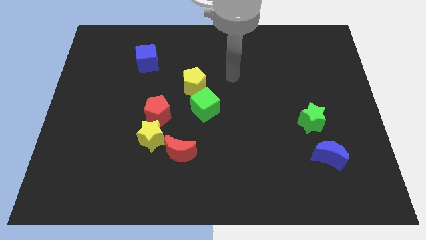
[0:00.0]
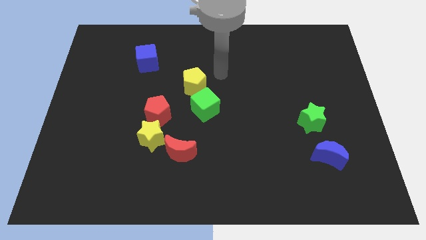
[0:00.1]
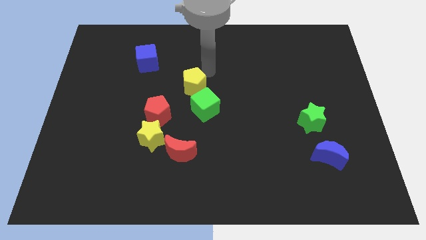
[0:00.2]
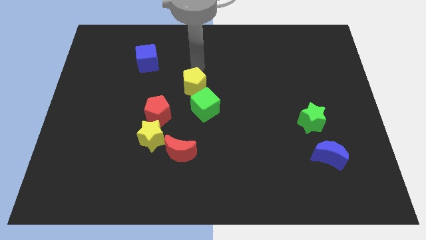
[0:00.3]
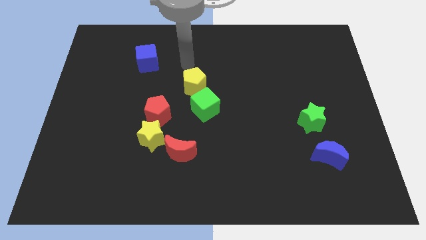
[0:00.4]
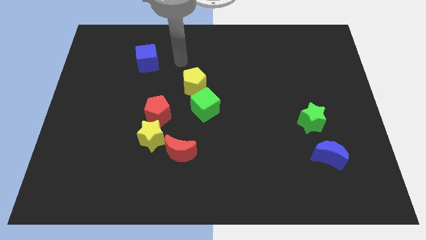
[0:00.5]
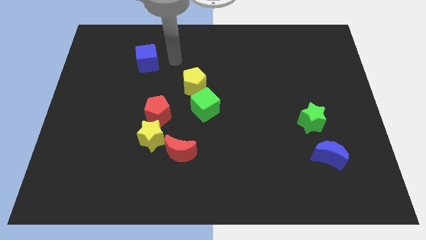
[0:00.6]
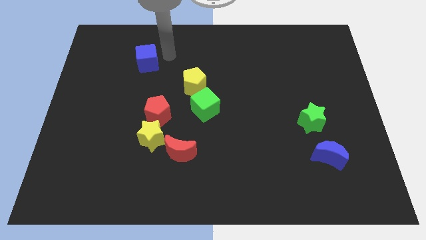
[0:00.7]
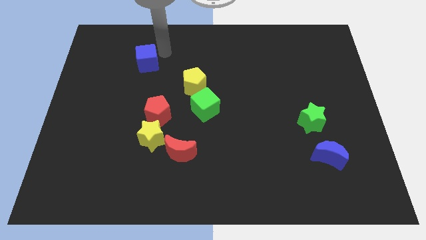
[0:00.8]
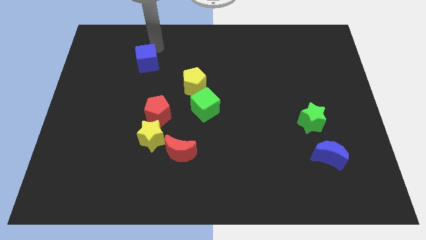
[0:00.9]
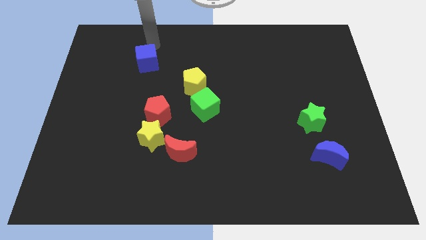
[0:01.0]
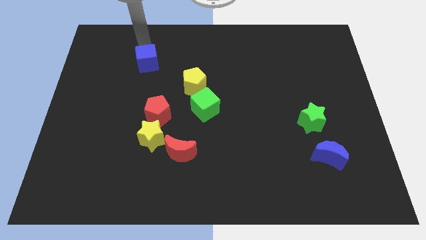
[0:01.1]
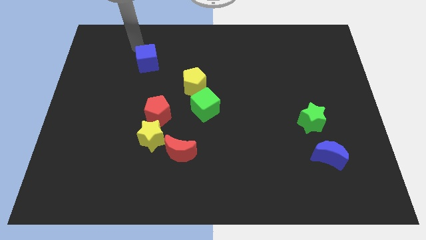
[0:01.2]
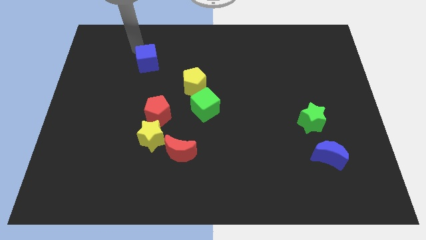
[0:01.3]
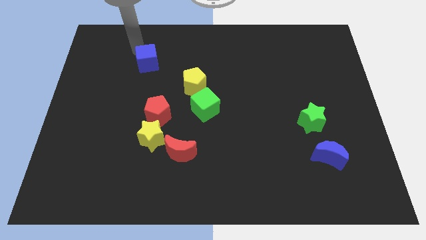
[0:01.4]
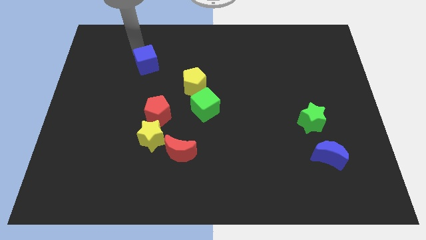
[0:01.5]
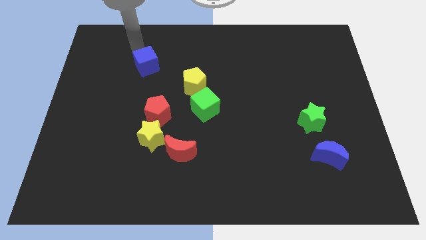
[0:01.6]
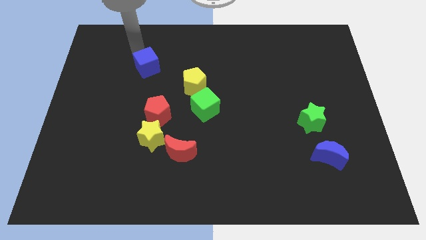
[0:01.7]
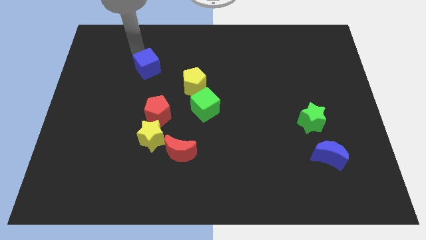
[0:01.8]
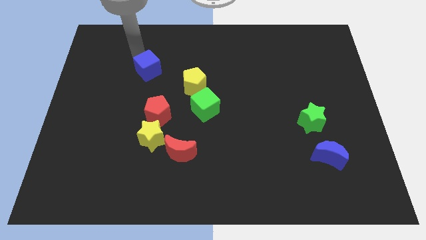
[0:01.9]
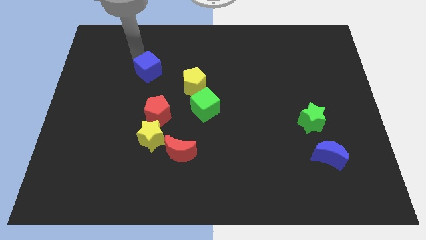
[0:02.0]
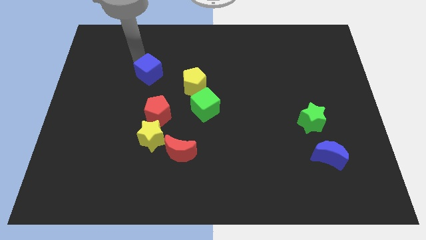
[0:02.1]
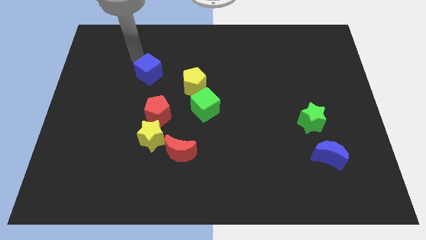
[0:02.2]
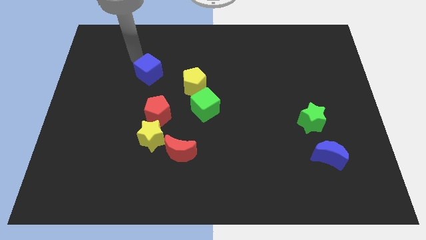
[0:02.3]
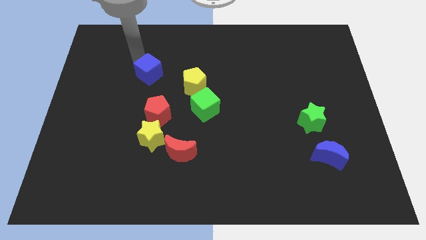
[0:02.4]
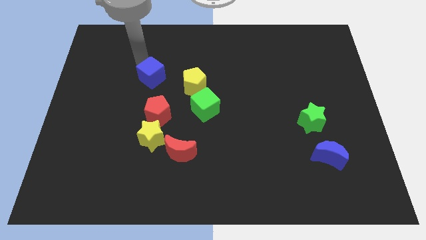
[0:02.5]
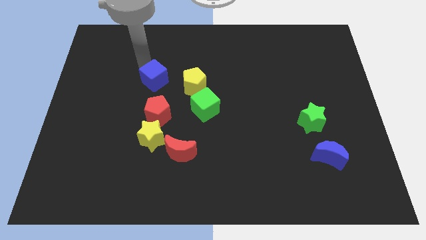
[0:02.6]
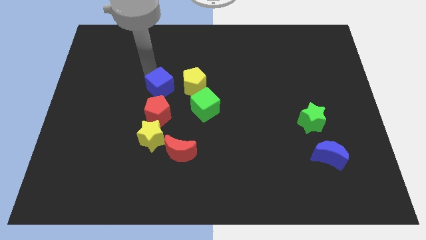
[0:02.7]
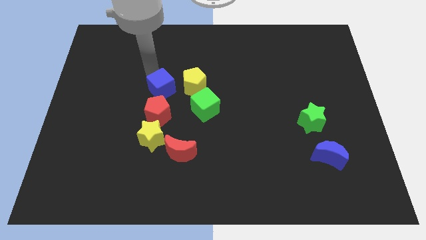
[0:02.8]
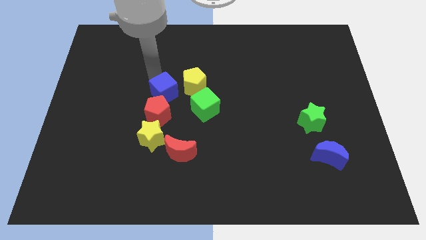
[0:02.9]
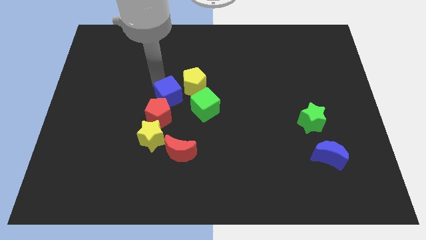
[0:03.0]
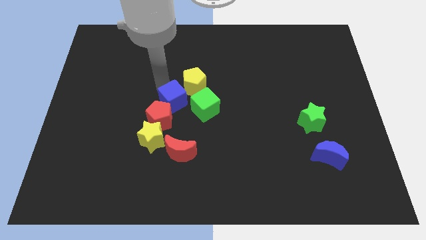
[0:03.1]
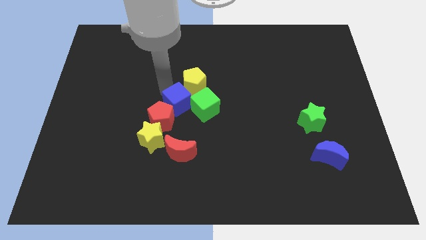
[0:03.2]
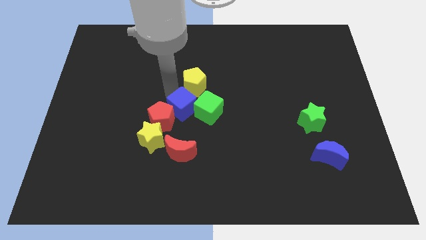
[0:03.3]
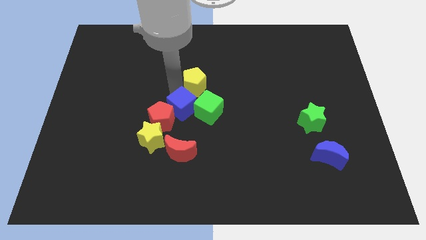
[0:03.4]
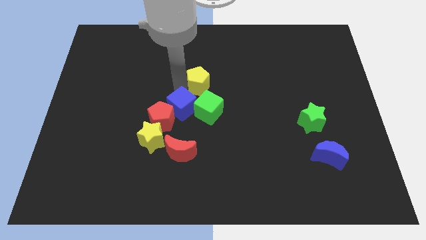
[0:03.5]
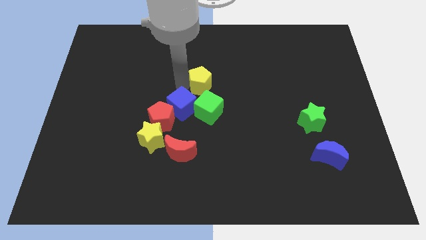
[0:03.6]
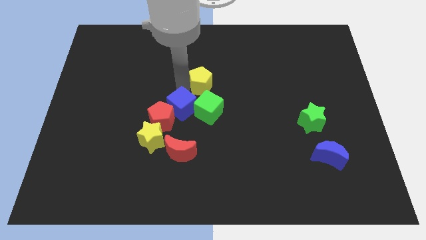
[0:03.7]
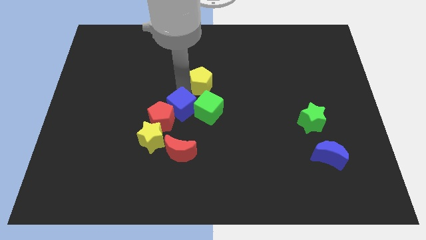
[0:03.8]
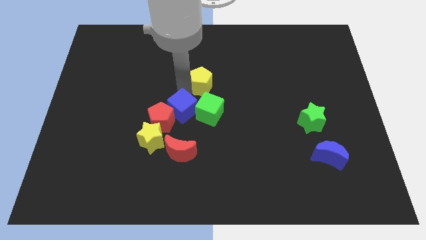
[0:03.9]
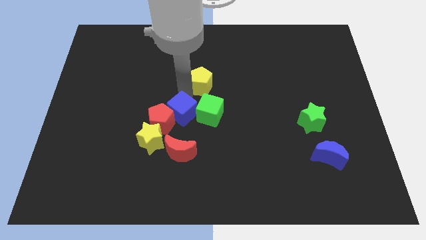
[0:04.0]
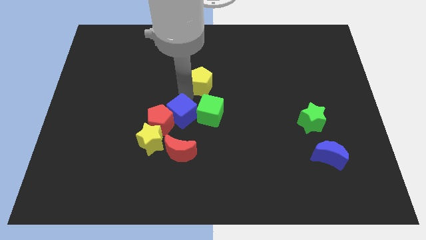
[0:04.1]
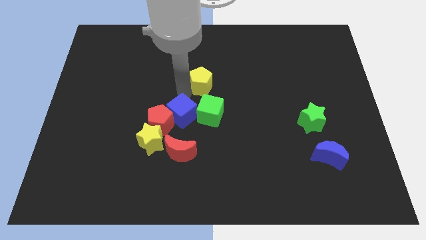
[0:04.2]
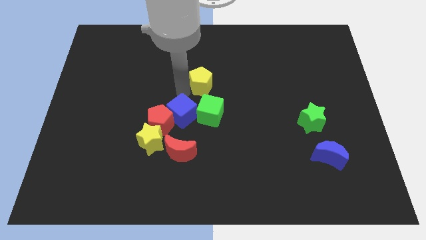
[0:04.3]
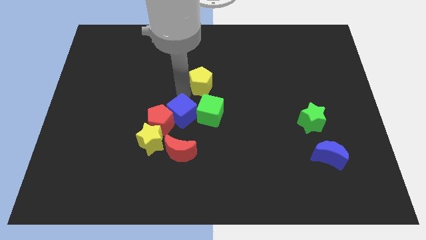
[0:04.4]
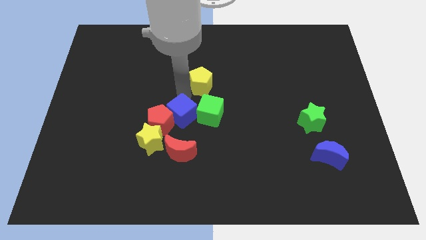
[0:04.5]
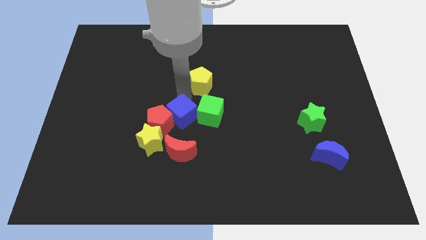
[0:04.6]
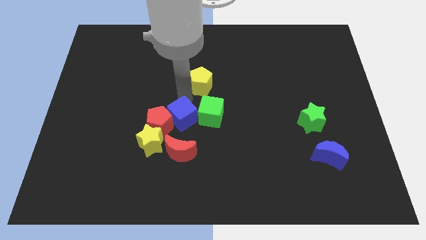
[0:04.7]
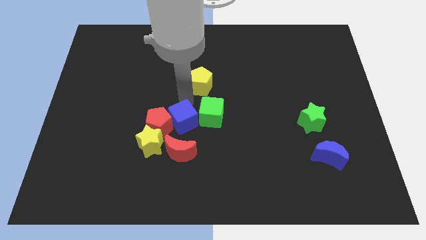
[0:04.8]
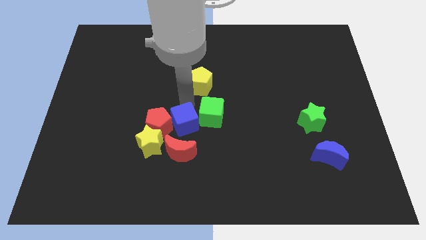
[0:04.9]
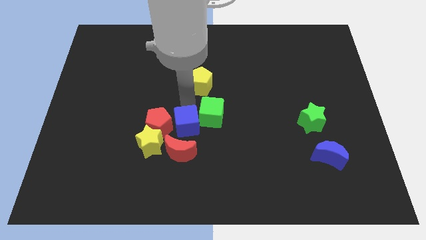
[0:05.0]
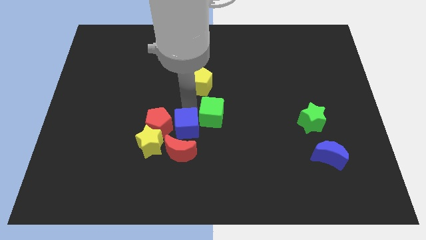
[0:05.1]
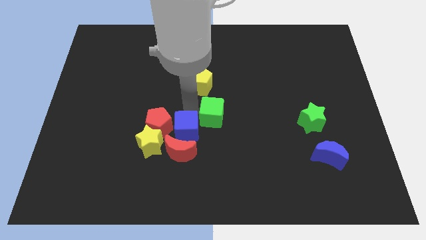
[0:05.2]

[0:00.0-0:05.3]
put the blue cube next to the red moon

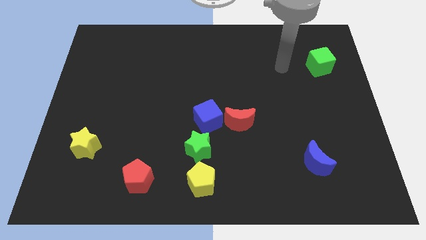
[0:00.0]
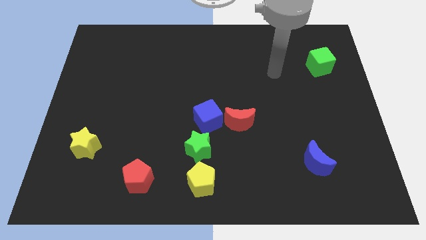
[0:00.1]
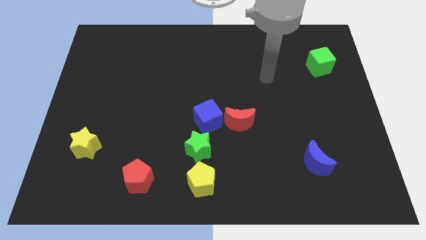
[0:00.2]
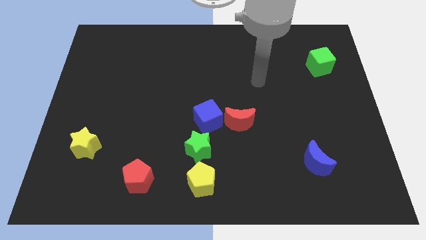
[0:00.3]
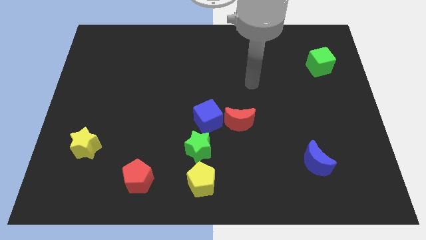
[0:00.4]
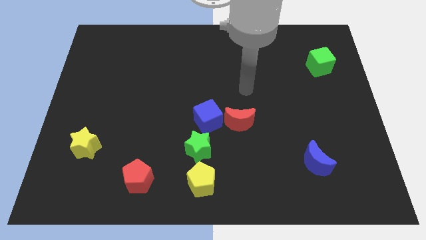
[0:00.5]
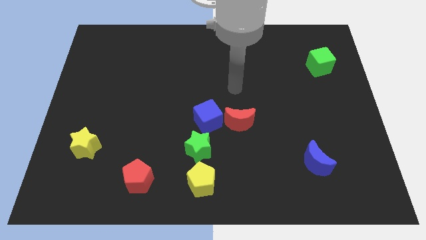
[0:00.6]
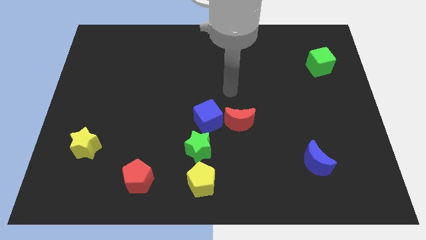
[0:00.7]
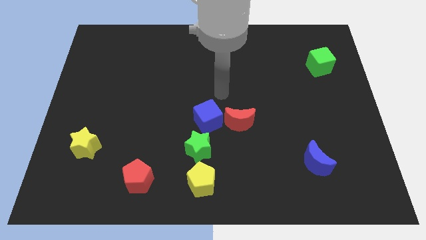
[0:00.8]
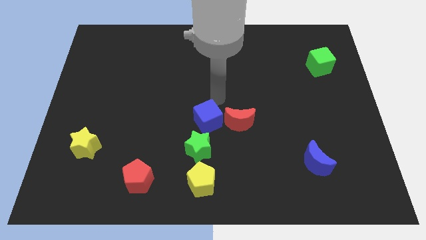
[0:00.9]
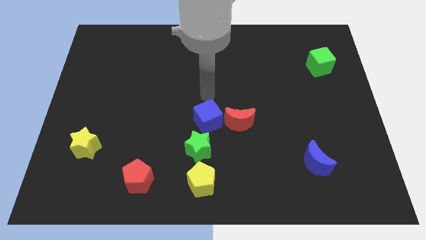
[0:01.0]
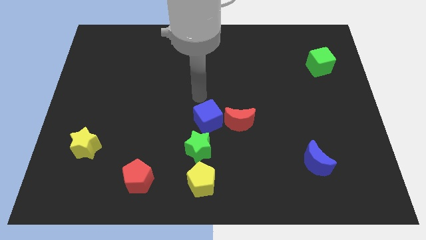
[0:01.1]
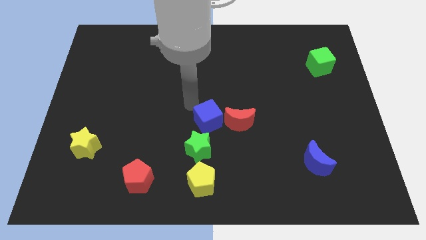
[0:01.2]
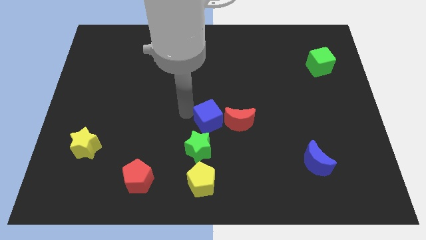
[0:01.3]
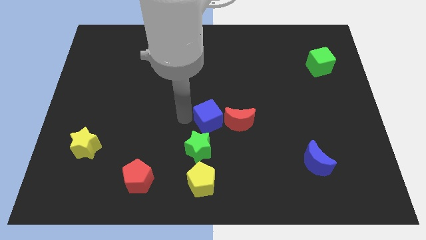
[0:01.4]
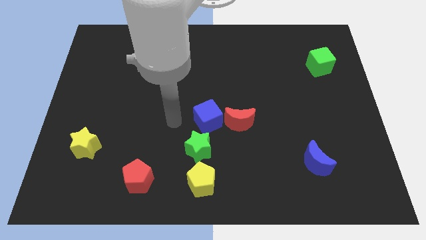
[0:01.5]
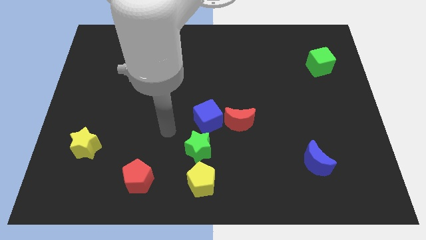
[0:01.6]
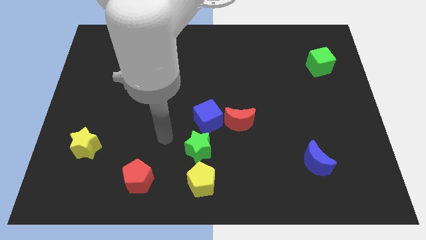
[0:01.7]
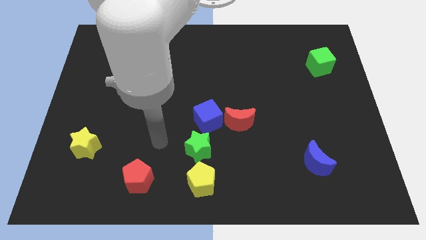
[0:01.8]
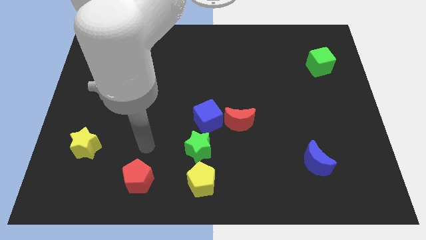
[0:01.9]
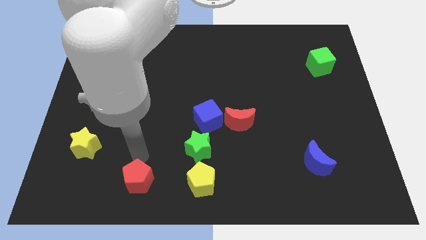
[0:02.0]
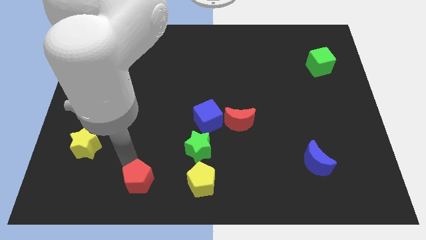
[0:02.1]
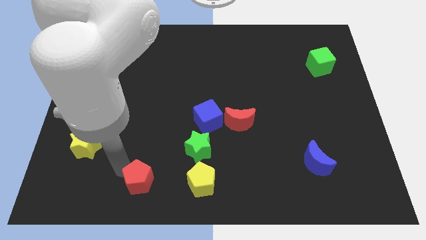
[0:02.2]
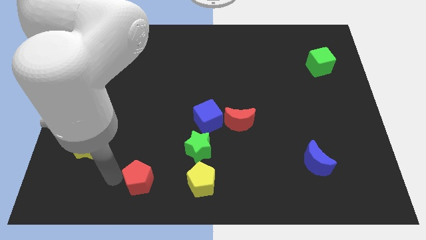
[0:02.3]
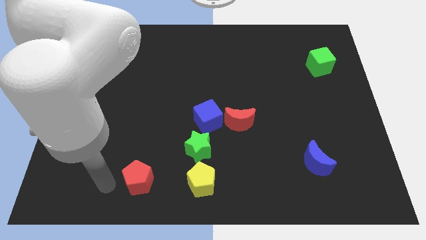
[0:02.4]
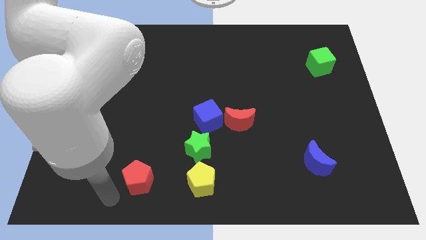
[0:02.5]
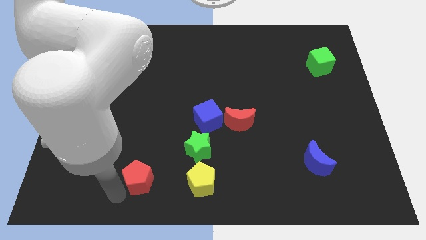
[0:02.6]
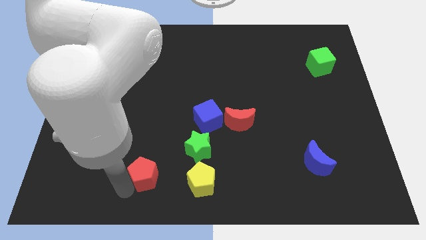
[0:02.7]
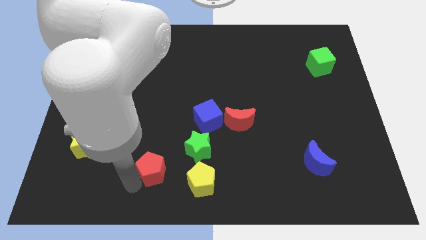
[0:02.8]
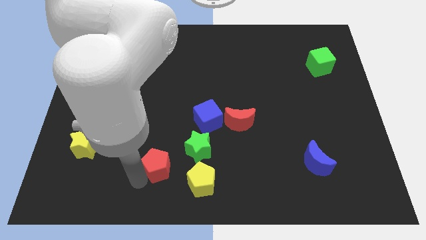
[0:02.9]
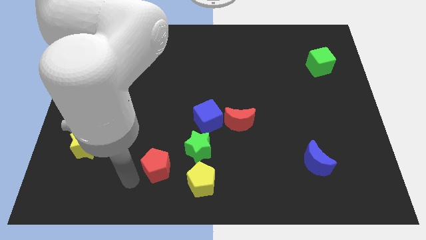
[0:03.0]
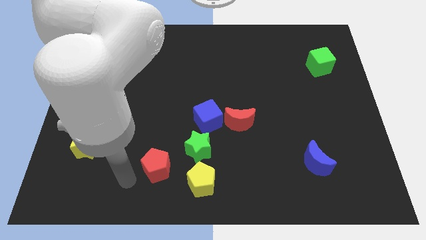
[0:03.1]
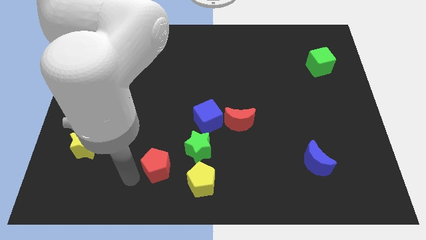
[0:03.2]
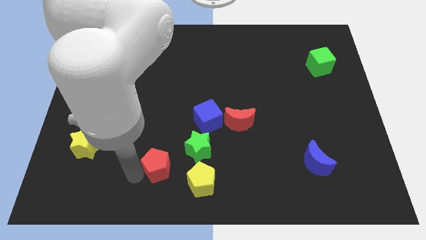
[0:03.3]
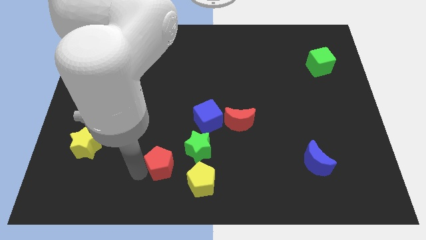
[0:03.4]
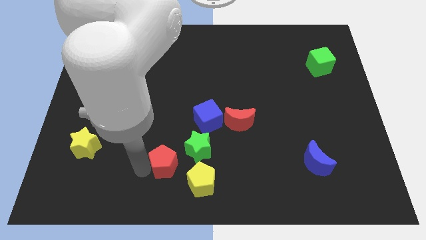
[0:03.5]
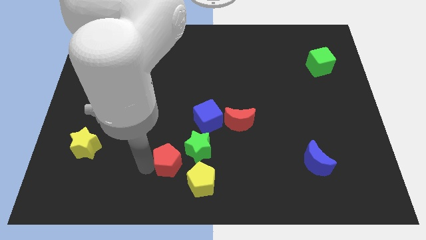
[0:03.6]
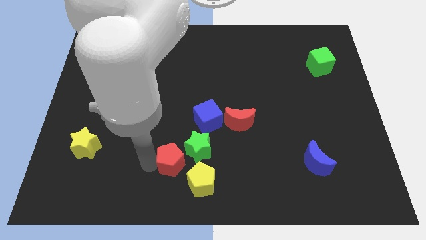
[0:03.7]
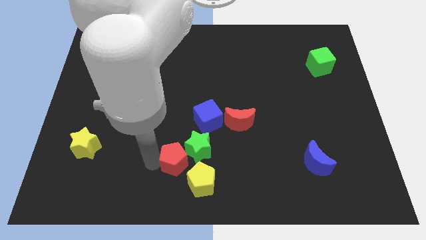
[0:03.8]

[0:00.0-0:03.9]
push the red pentagon next to the green star
